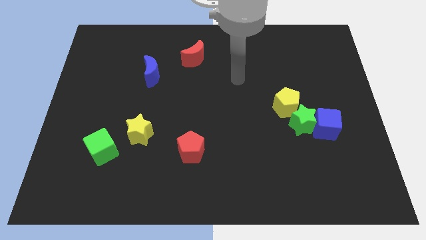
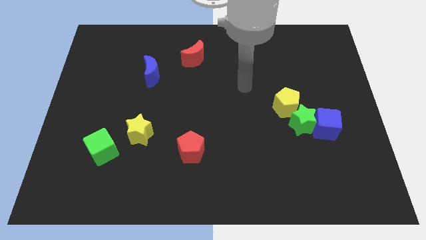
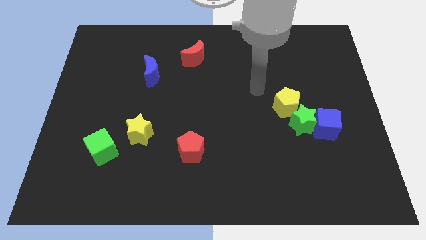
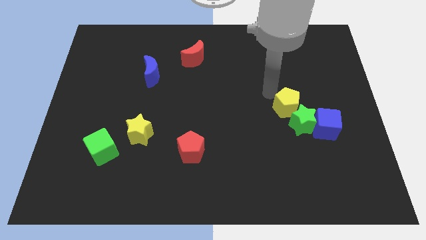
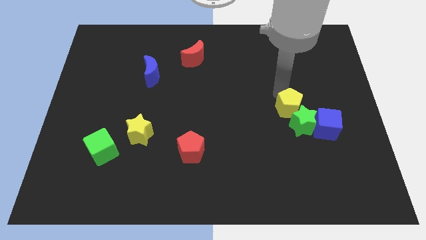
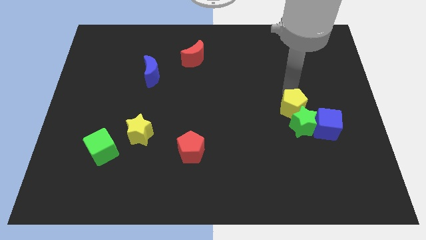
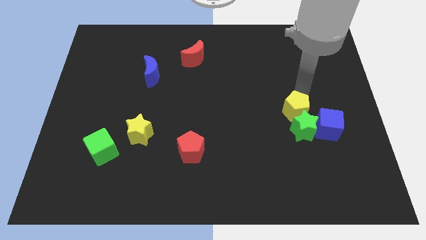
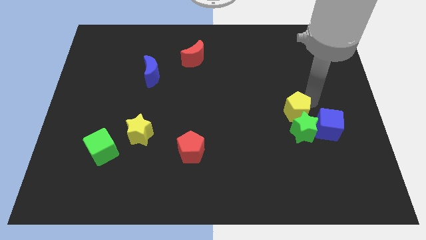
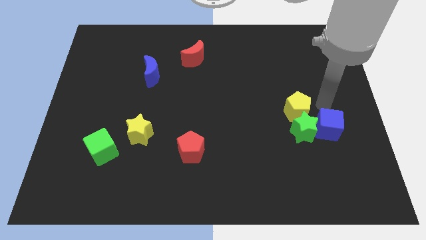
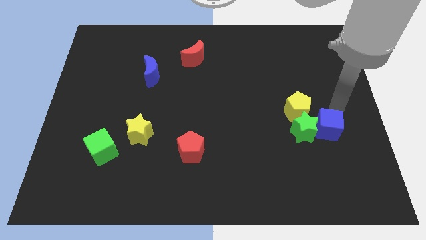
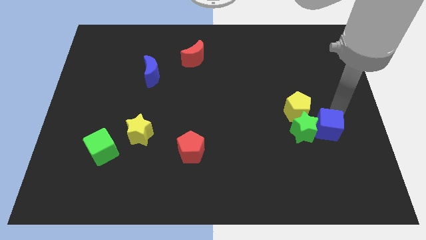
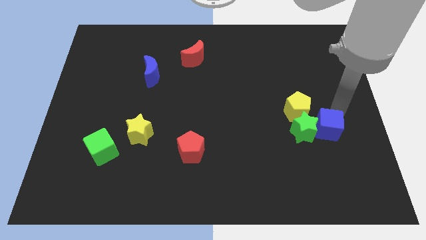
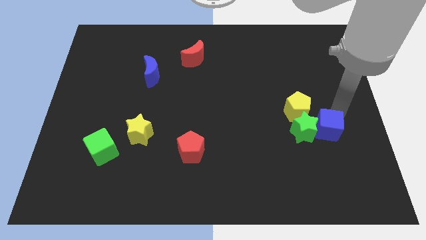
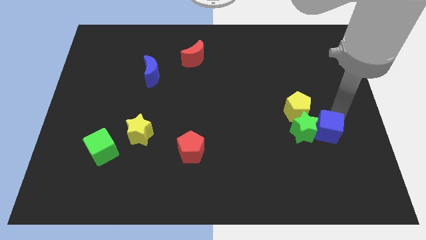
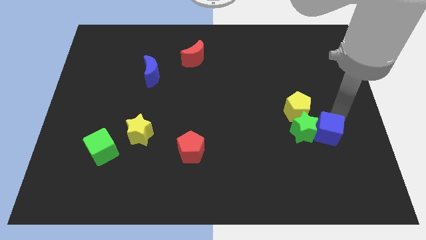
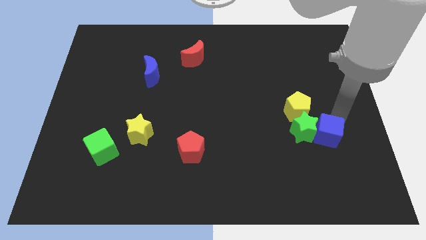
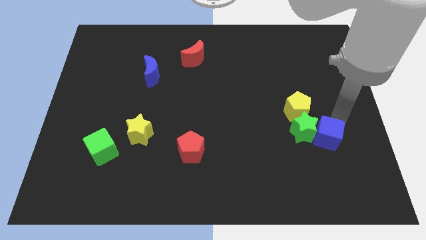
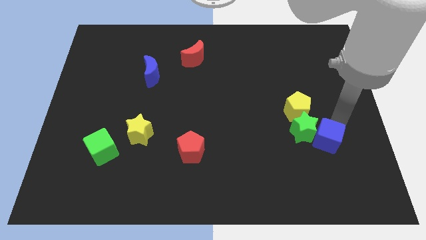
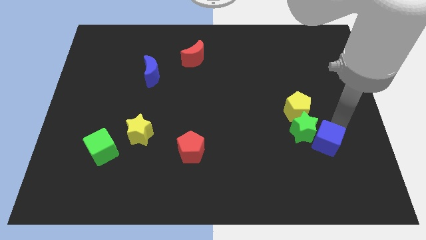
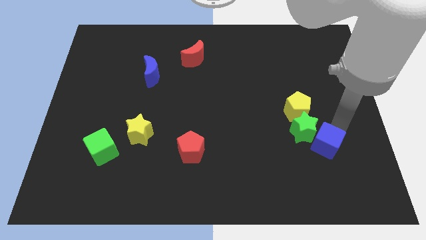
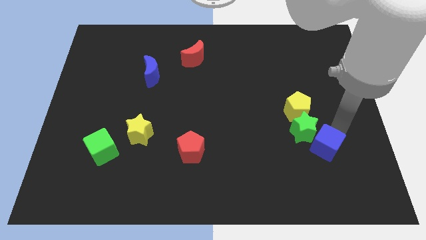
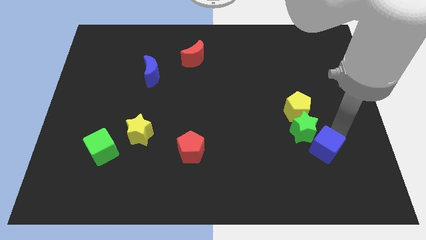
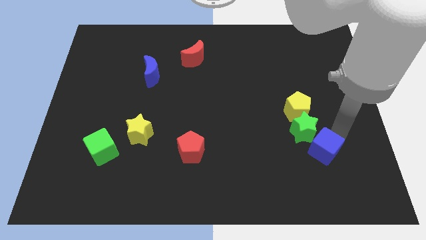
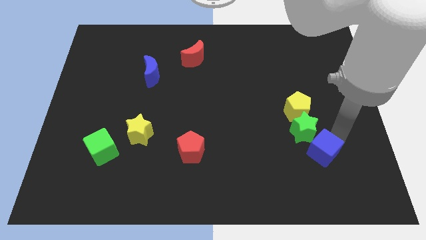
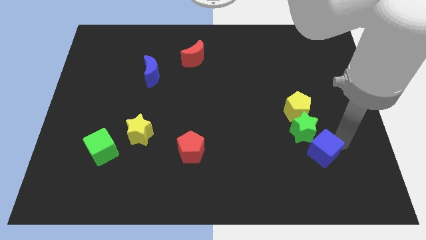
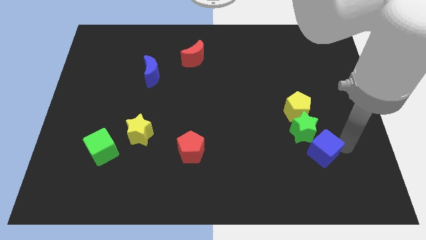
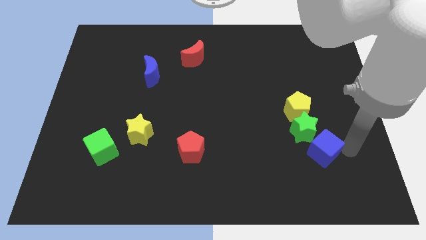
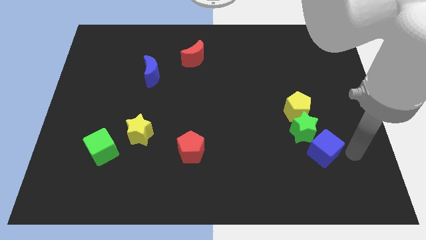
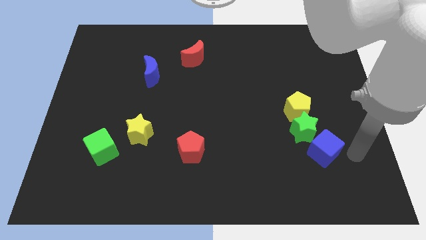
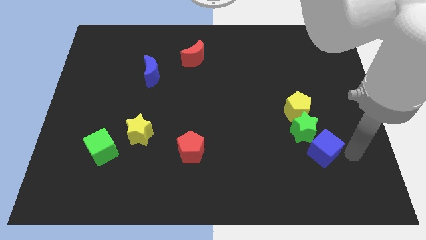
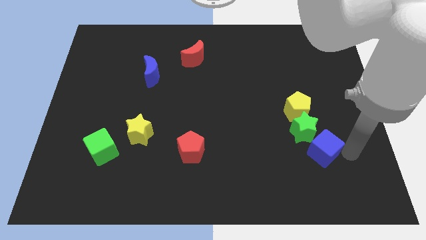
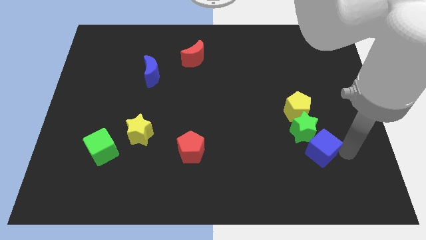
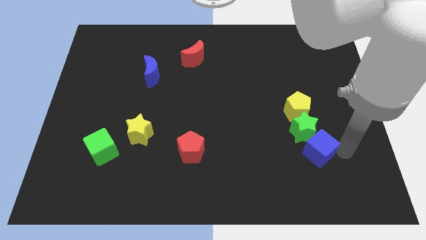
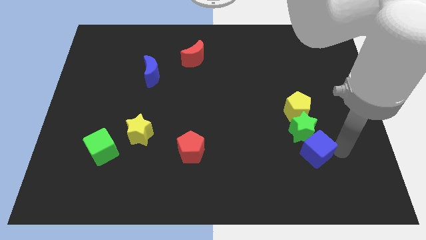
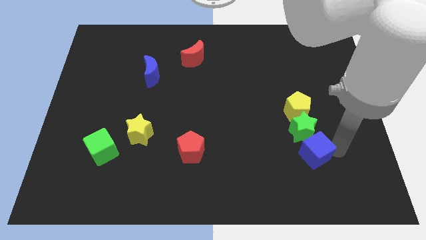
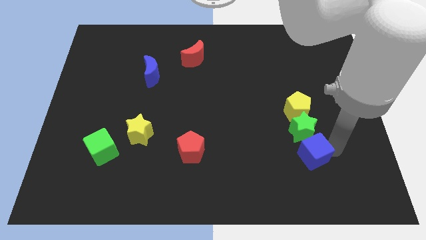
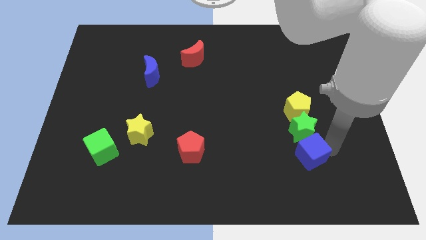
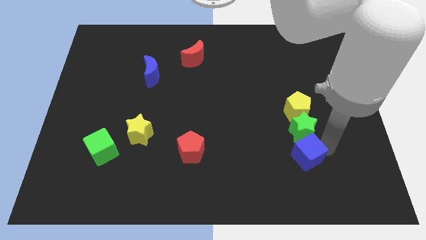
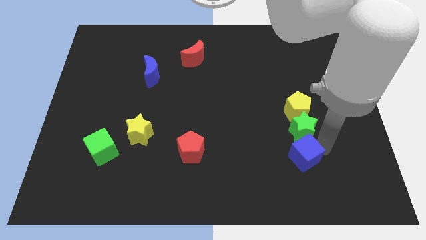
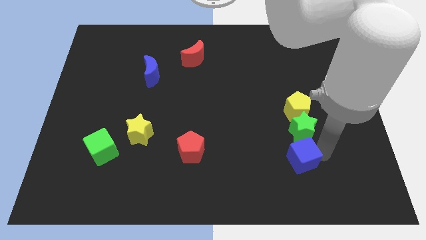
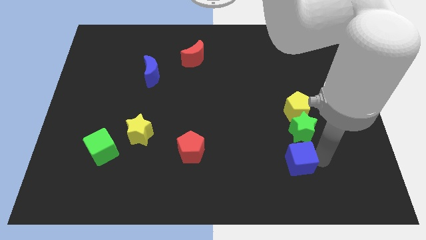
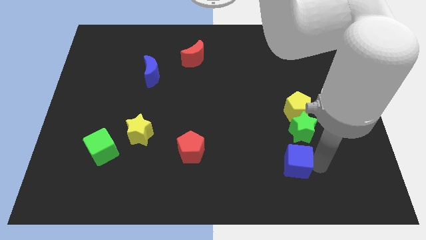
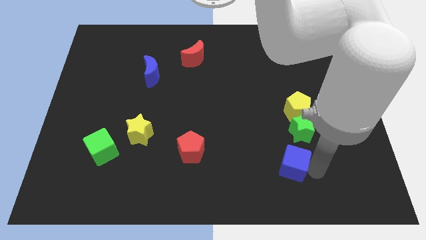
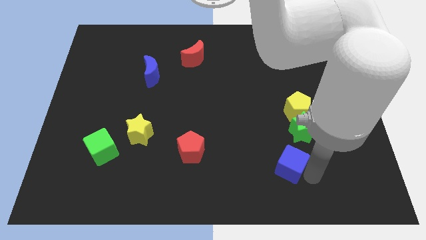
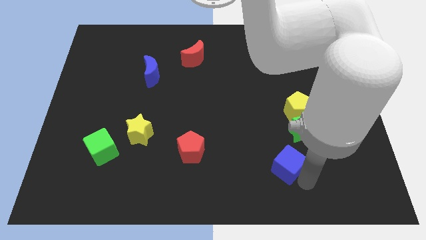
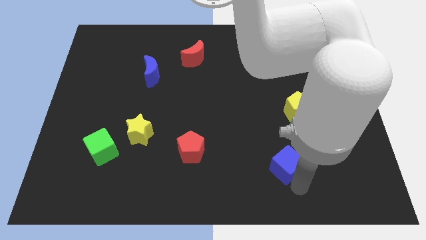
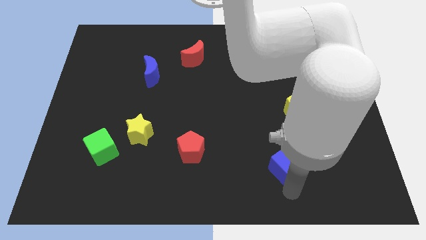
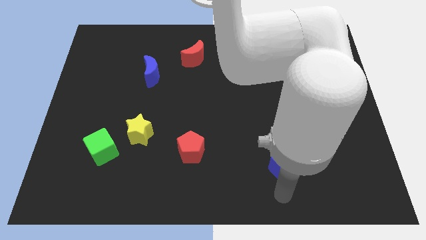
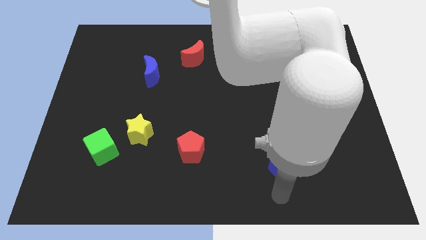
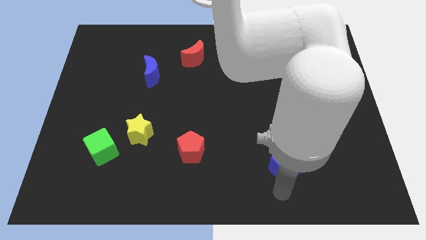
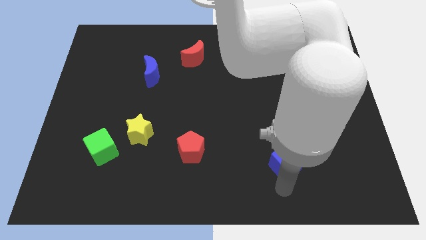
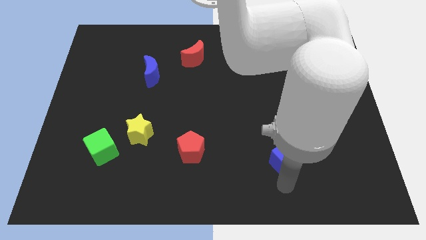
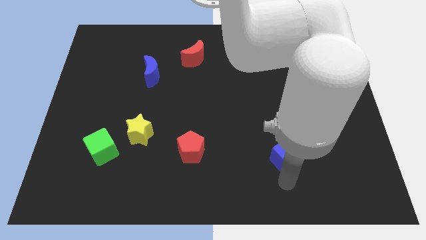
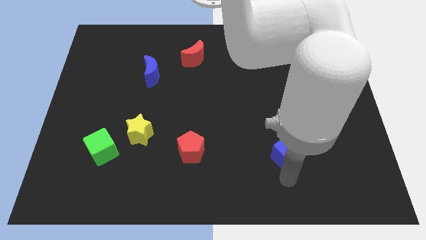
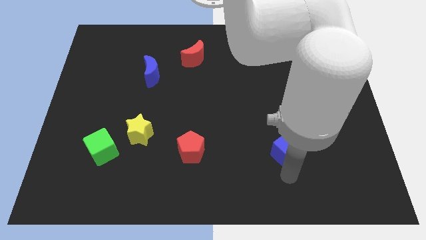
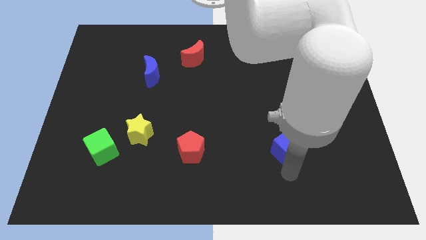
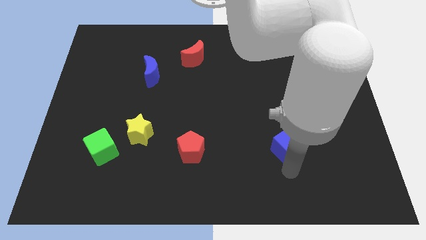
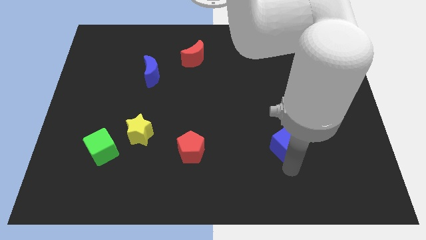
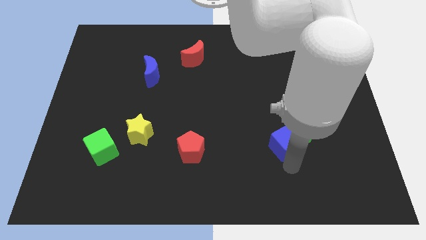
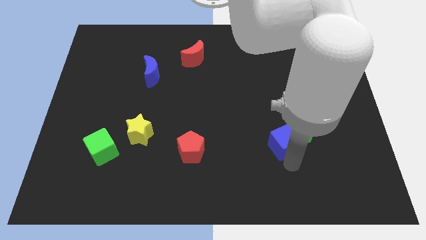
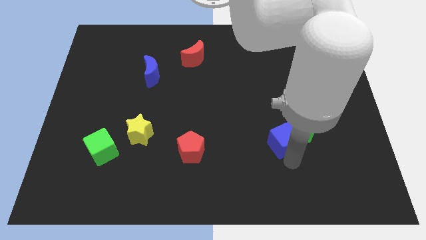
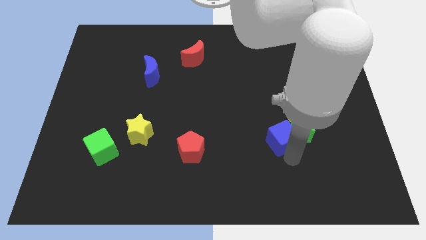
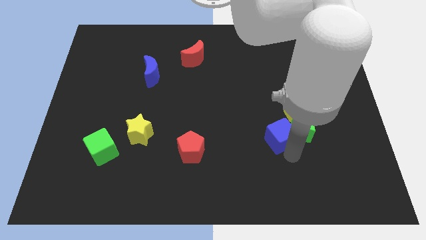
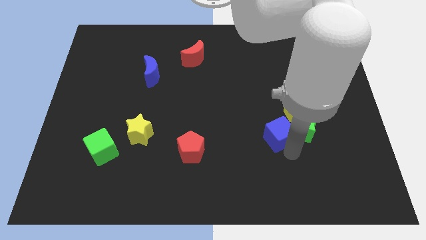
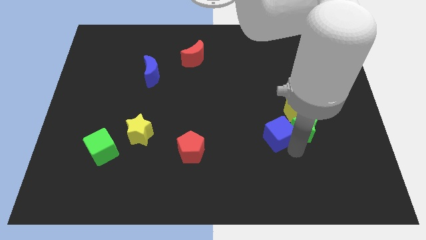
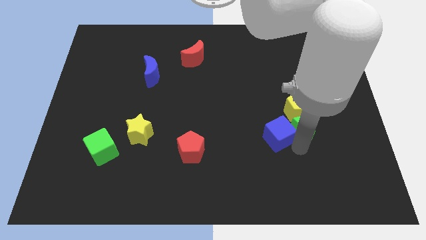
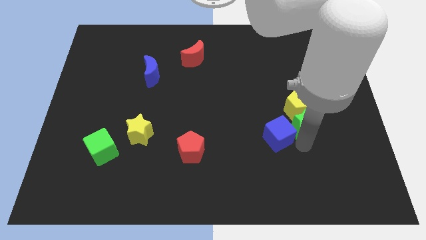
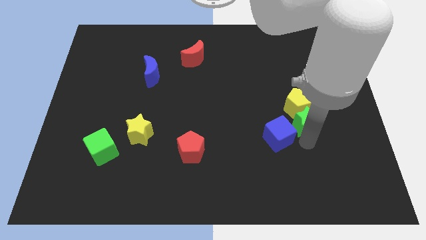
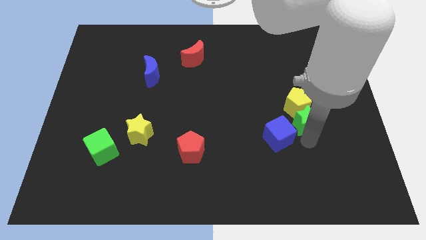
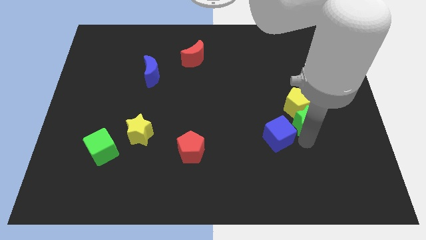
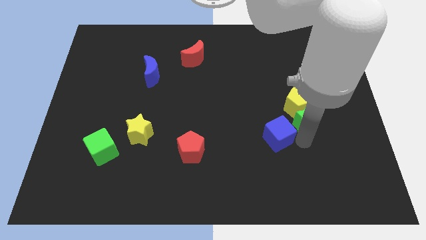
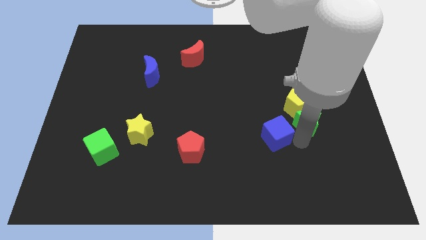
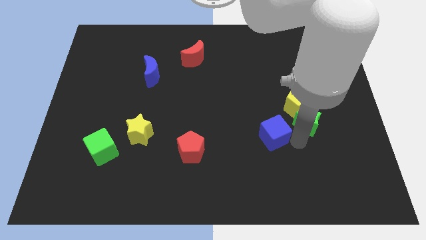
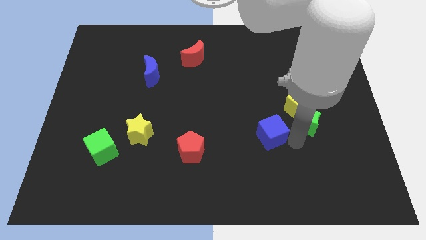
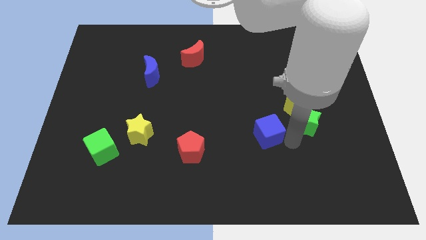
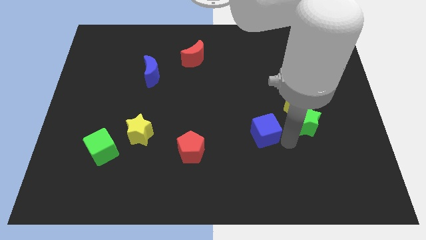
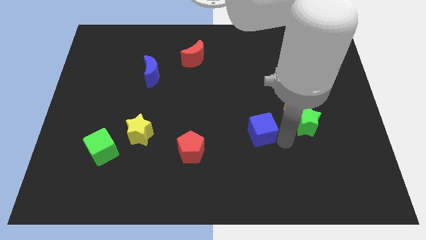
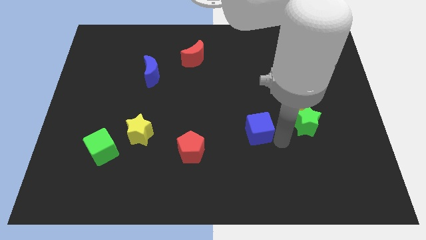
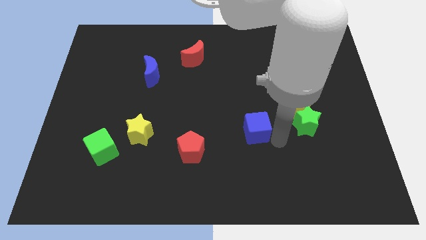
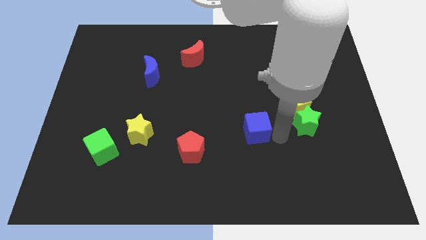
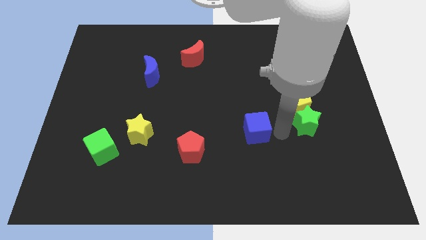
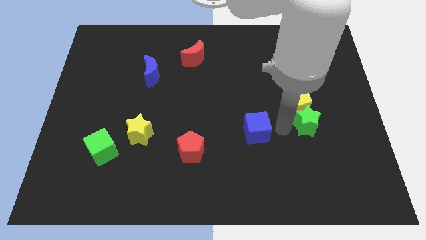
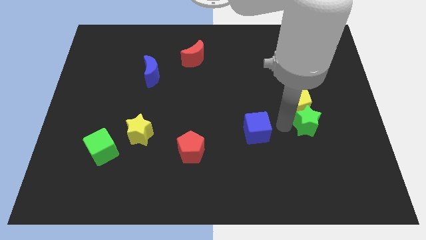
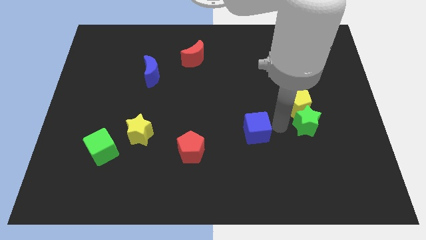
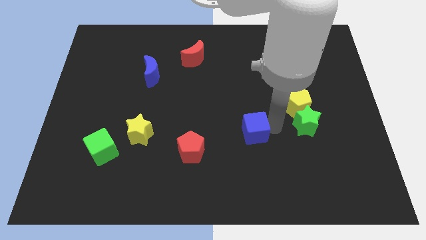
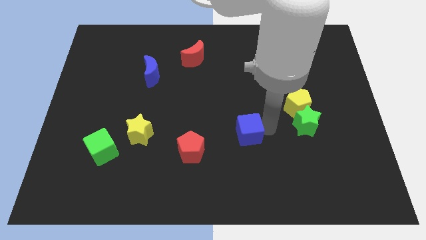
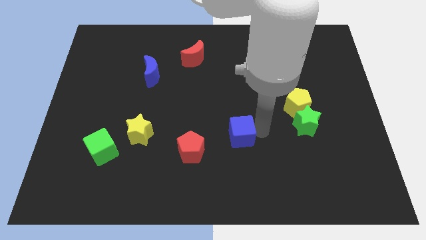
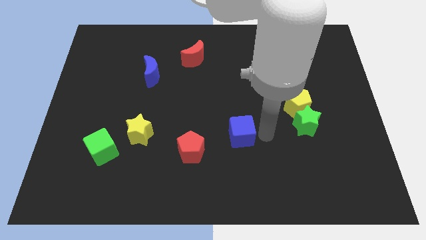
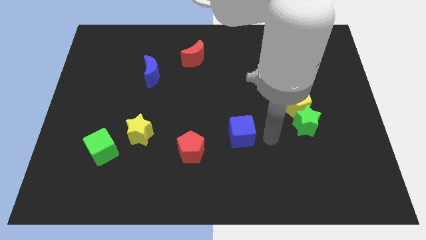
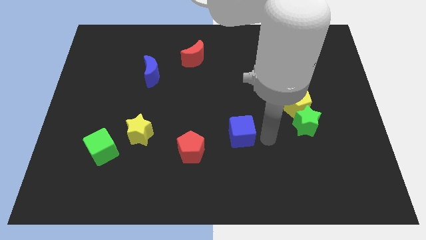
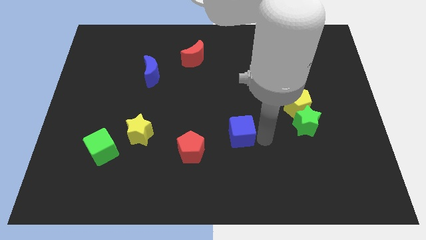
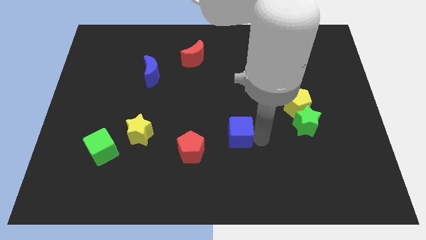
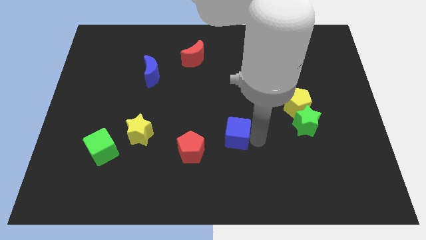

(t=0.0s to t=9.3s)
put the blue cube to the top right of the red pentagon
